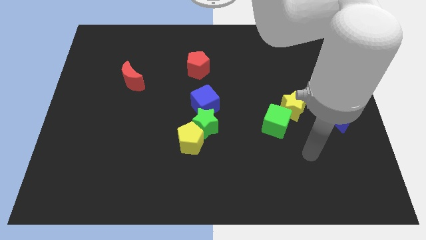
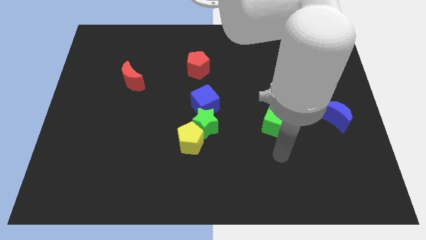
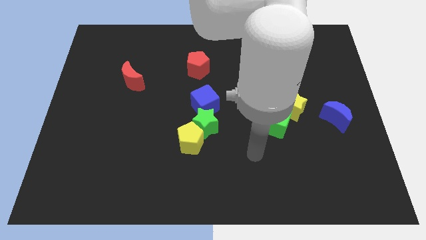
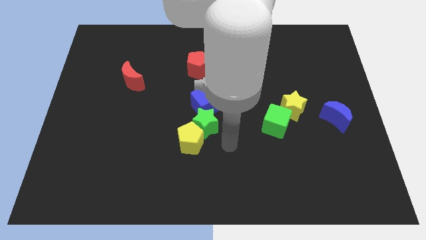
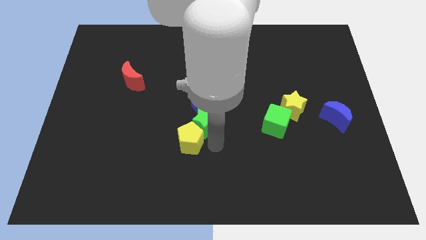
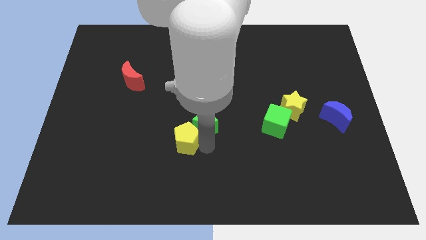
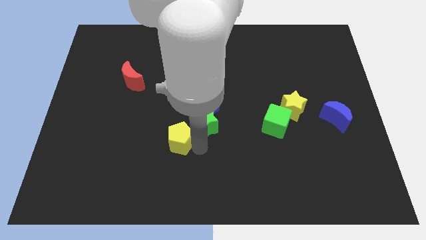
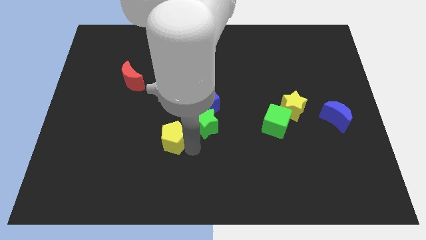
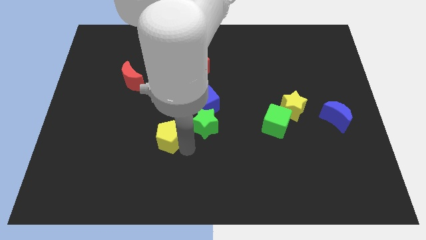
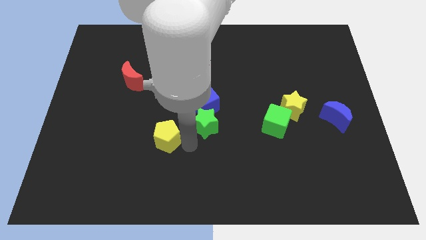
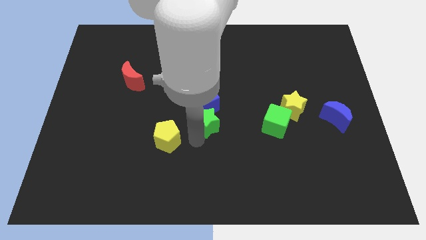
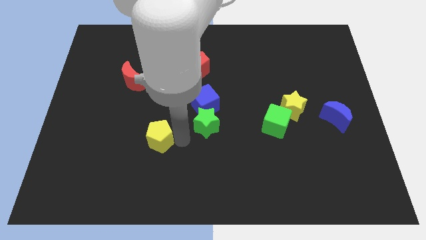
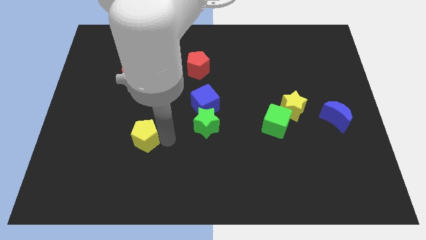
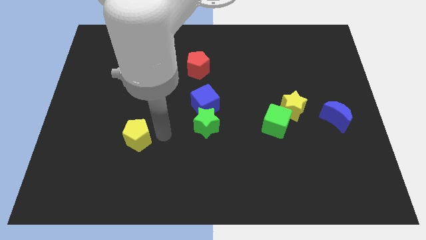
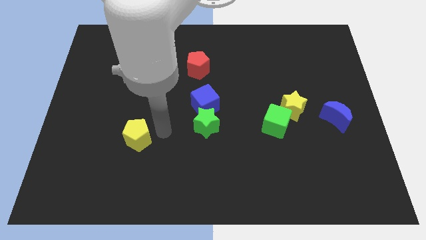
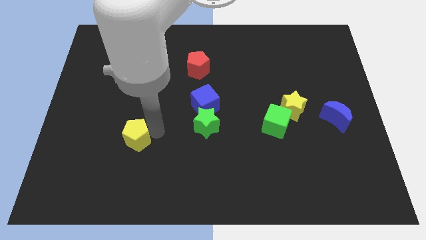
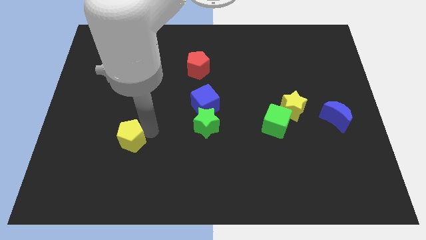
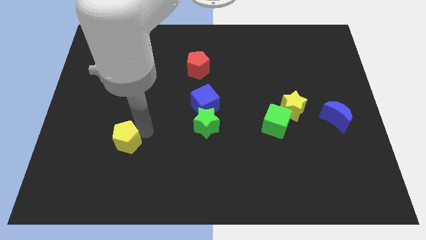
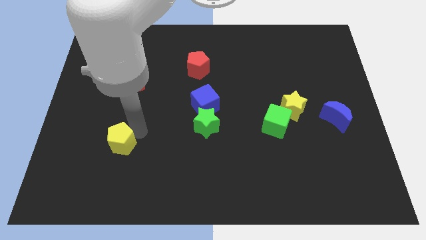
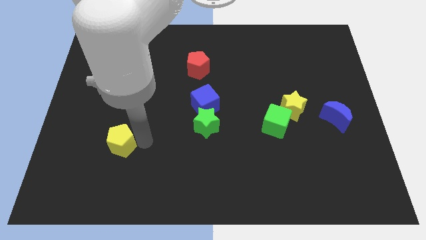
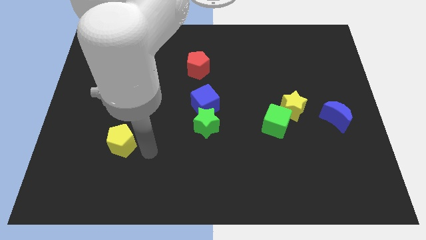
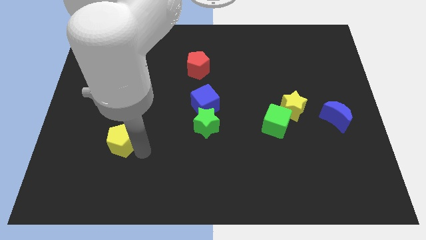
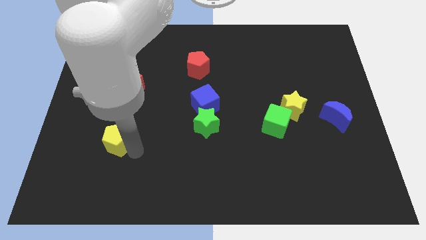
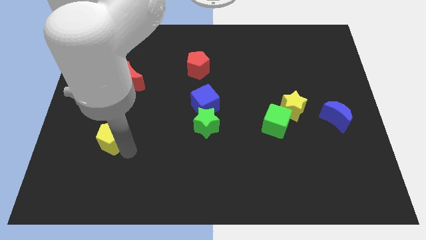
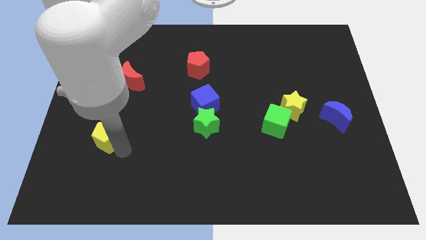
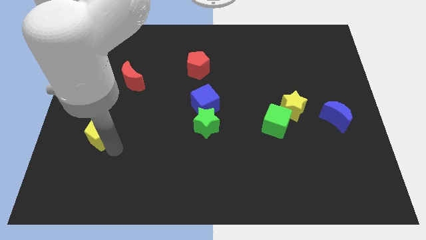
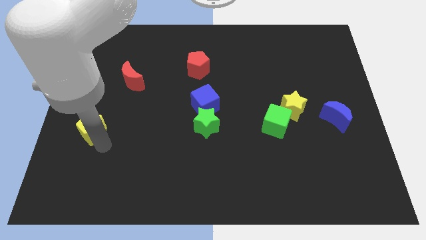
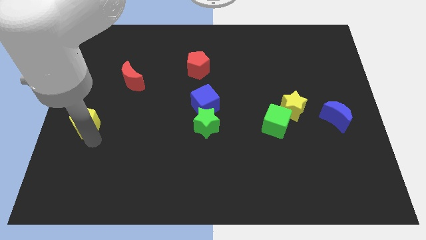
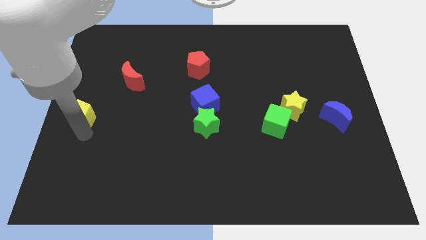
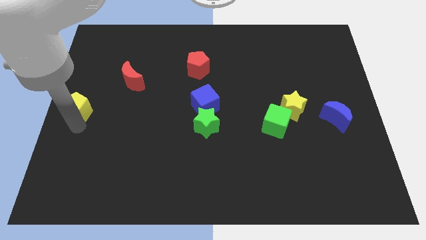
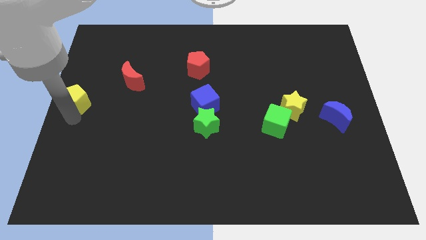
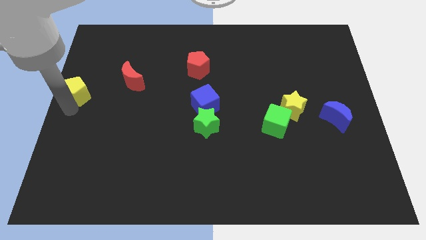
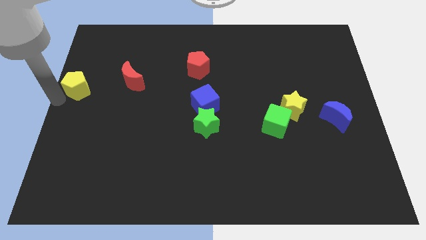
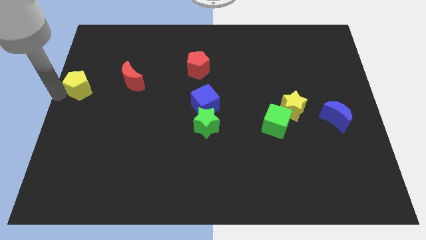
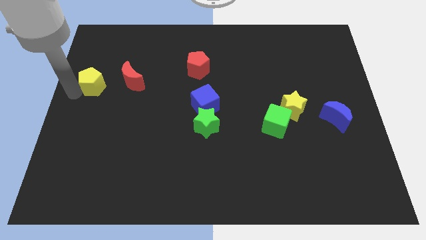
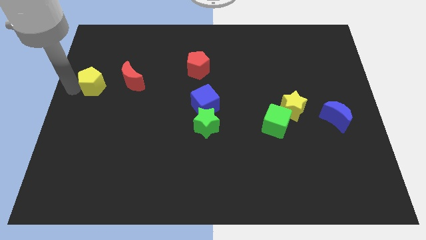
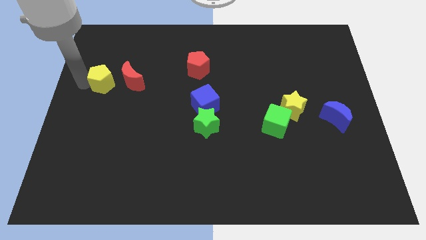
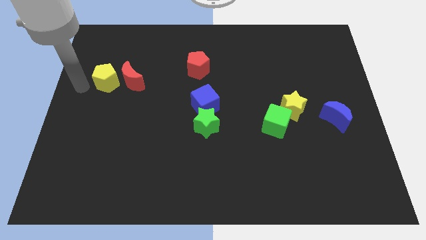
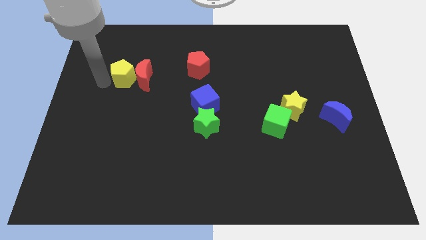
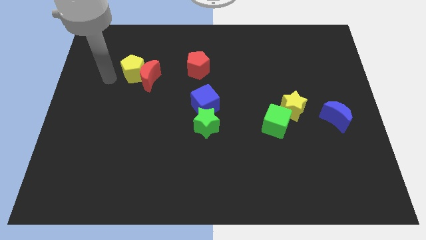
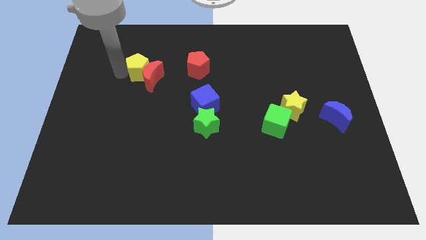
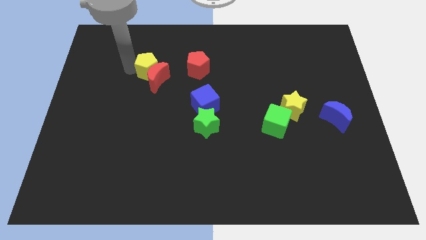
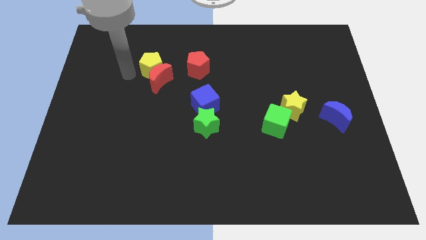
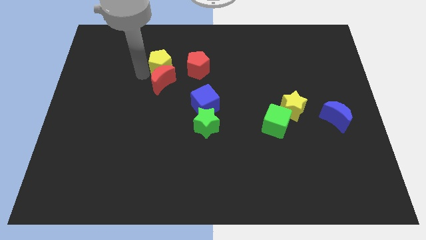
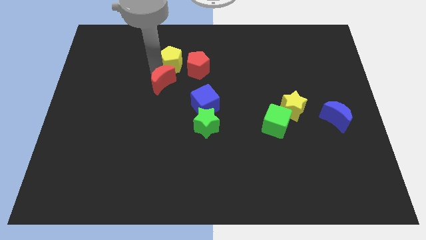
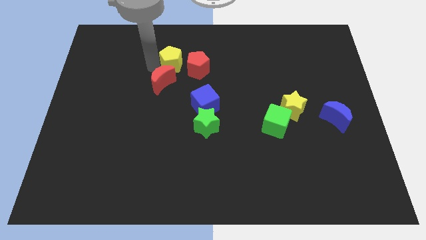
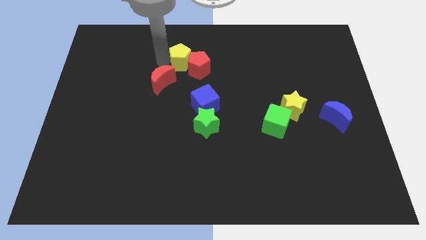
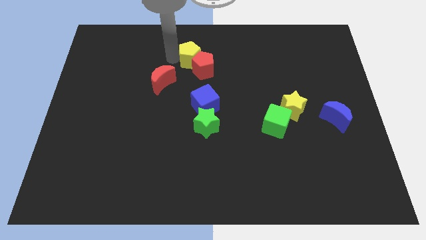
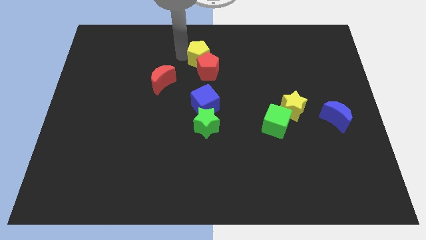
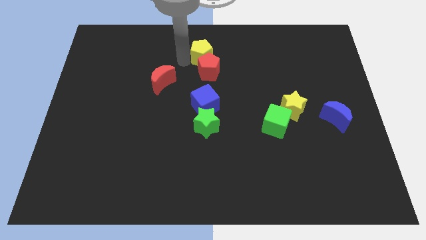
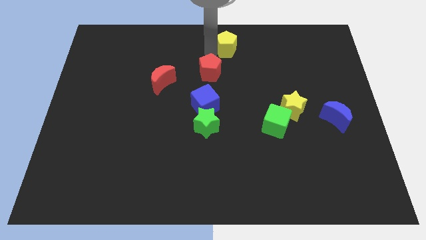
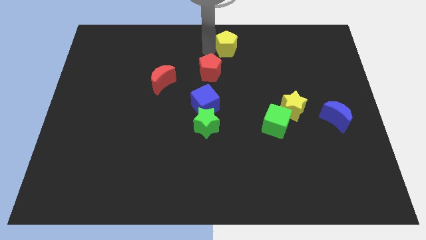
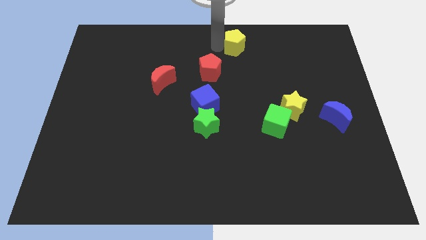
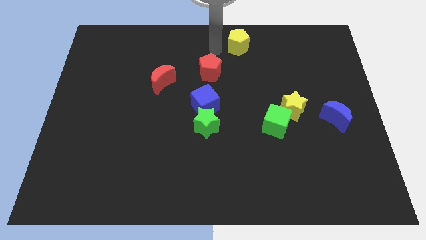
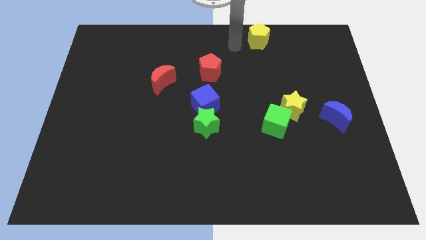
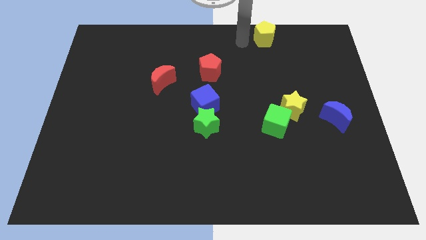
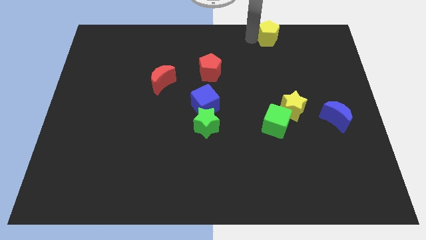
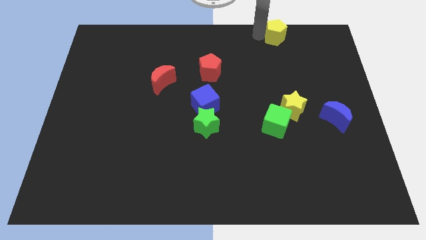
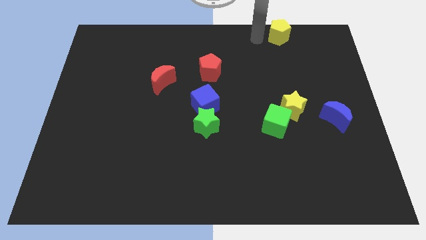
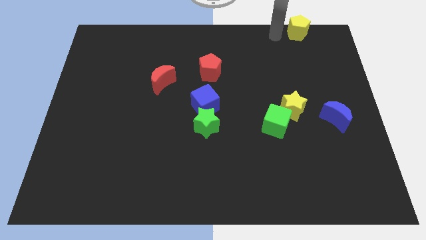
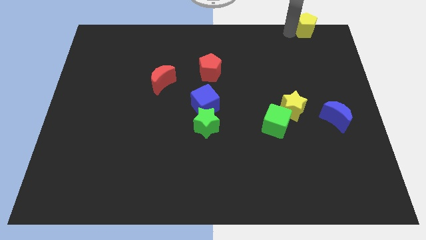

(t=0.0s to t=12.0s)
slide the yellow pentagon to the top right of the board

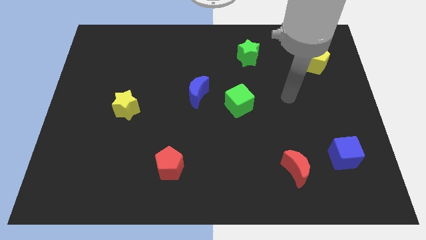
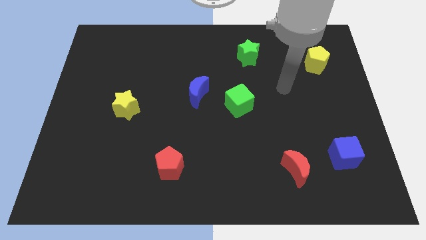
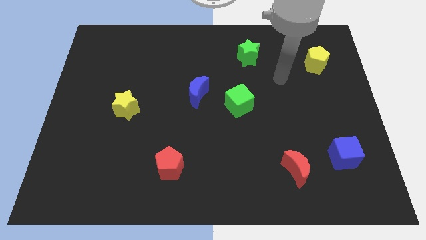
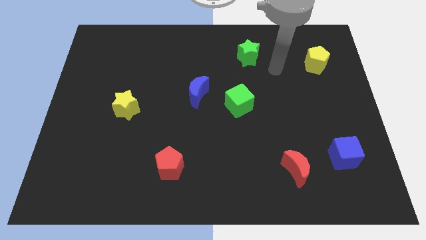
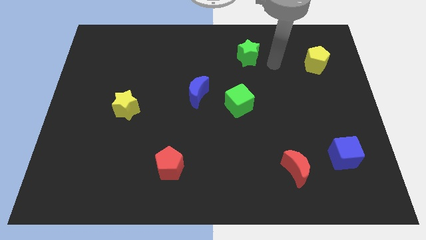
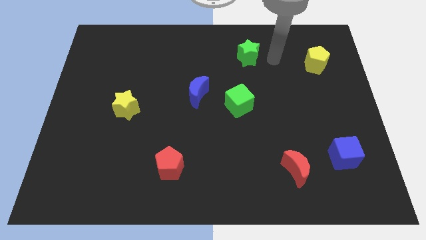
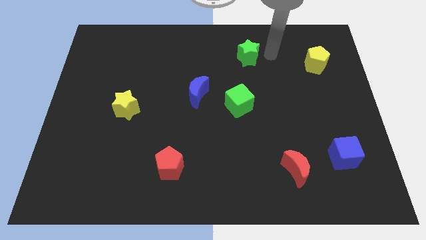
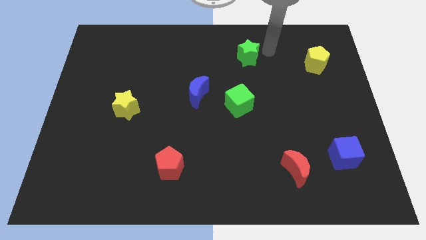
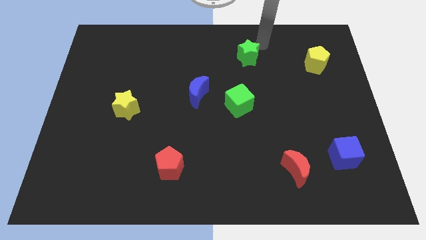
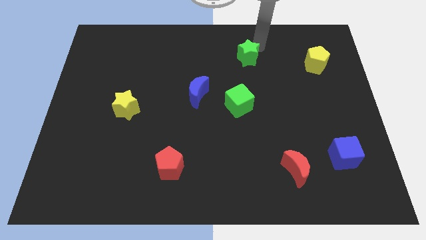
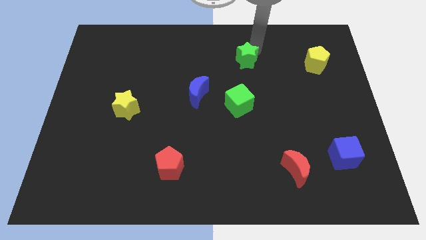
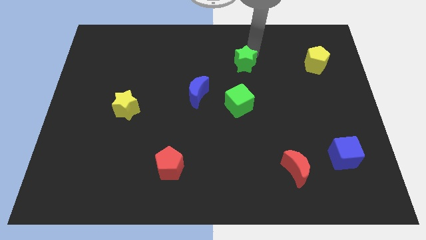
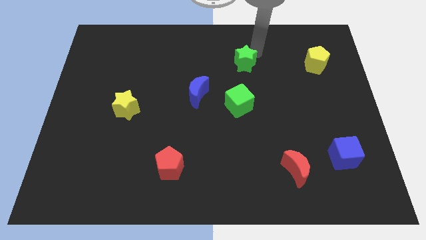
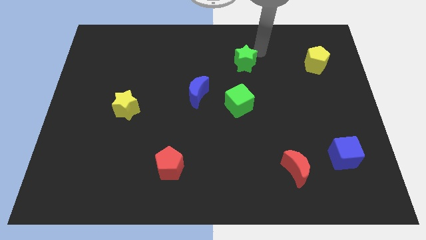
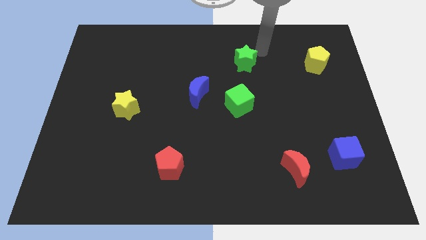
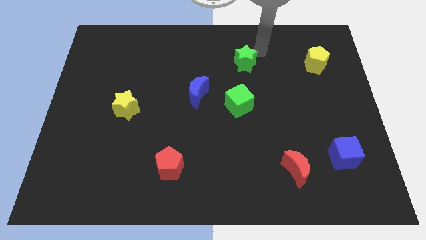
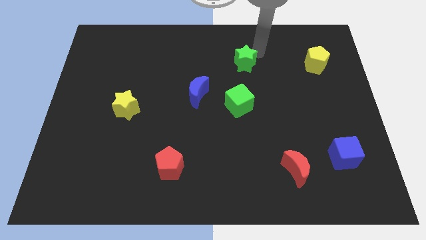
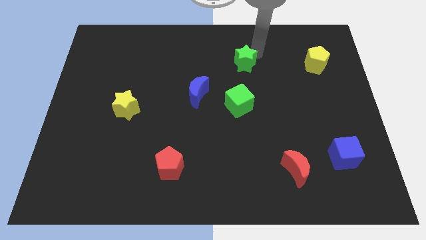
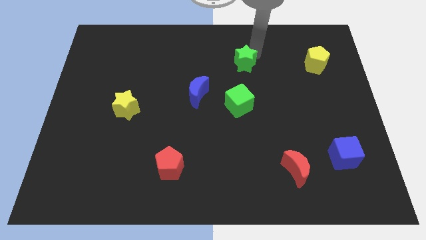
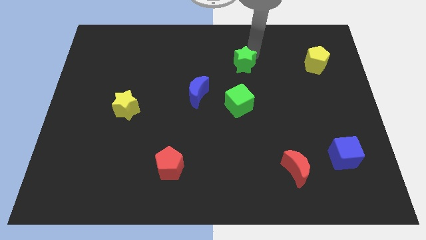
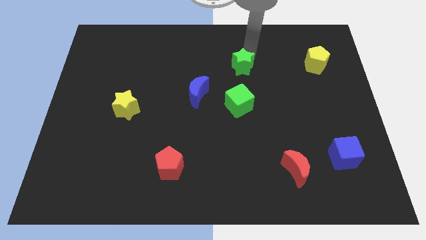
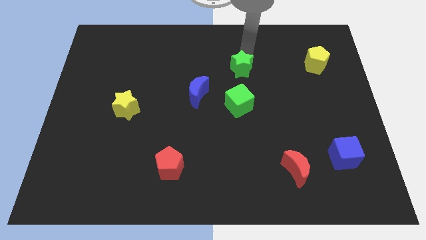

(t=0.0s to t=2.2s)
push the green star to the middle
